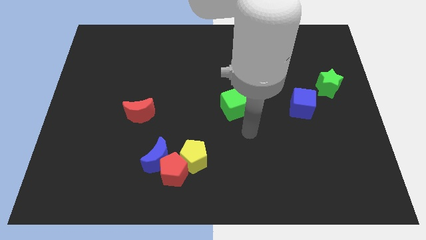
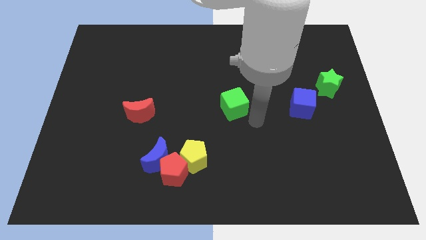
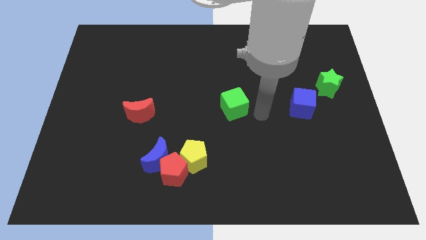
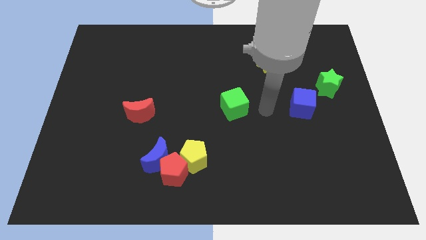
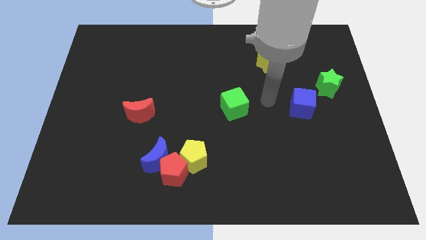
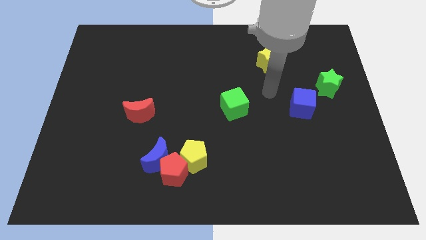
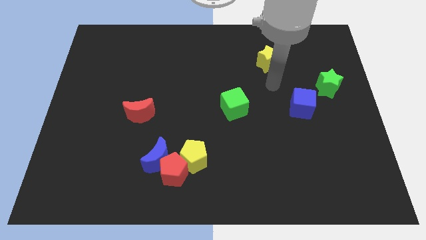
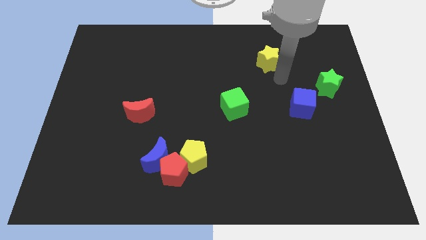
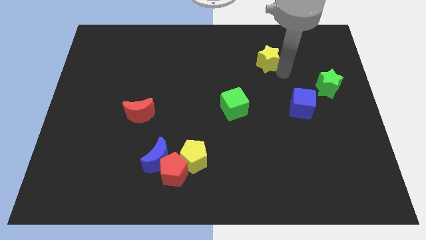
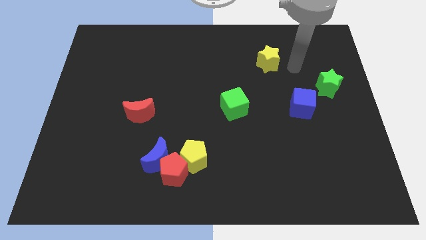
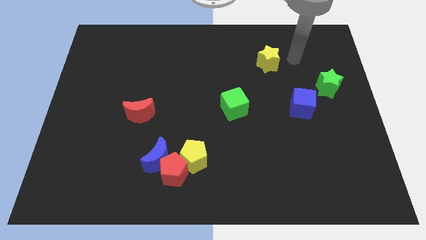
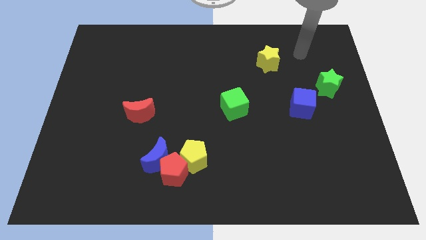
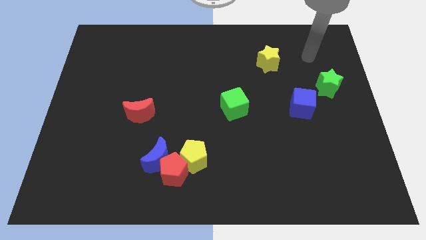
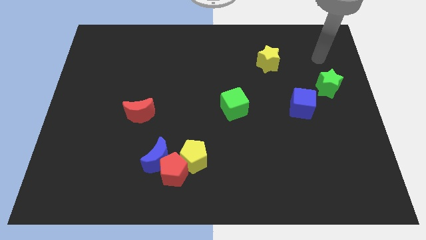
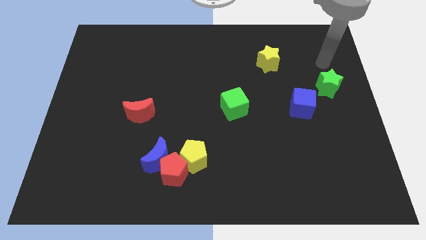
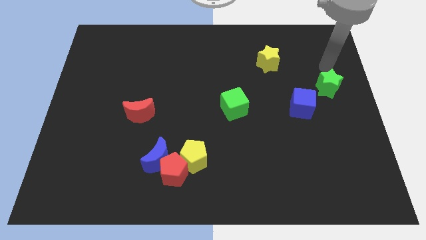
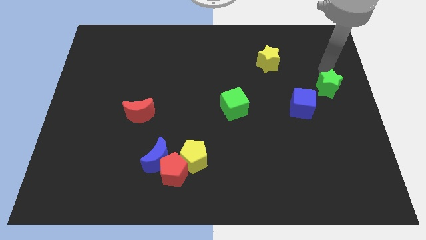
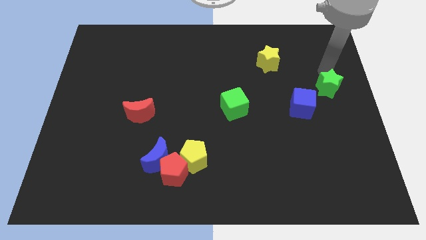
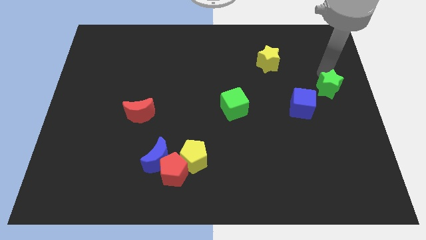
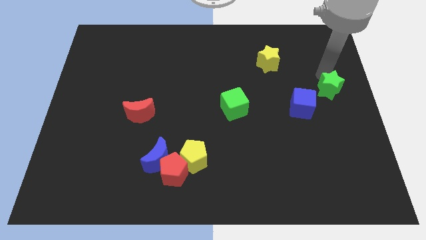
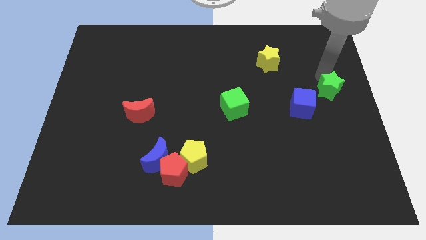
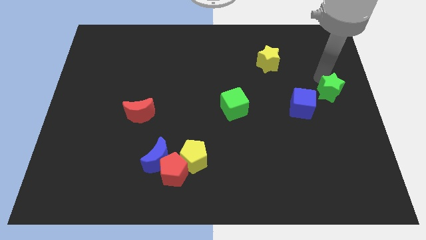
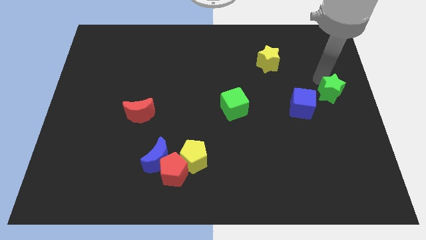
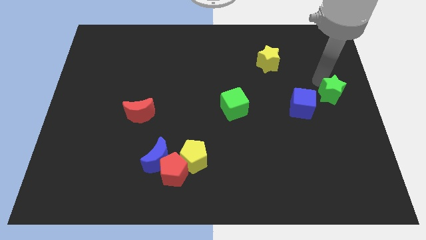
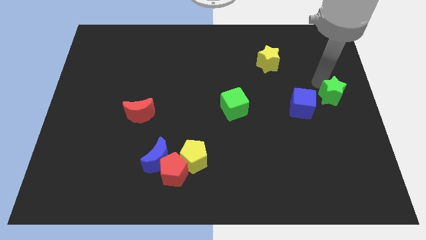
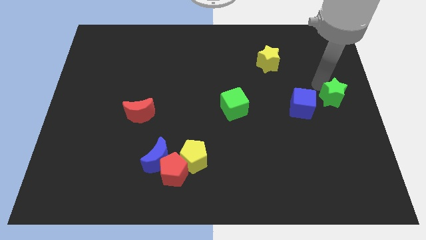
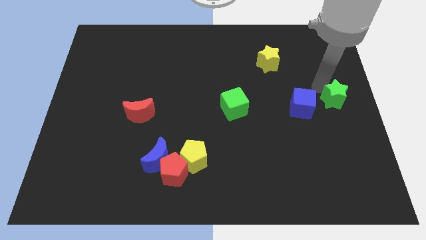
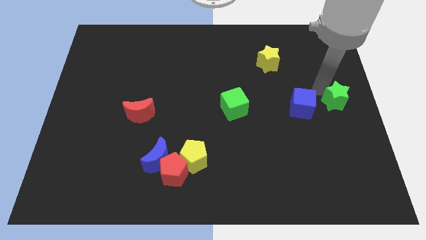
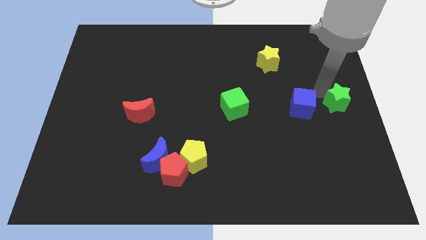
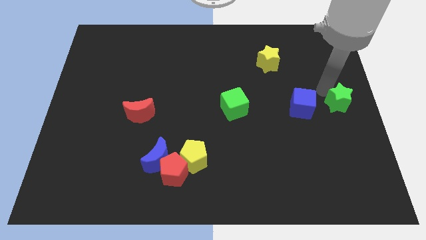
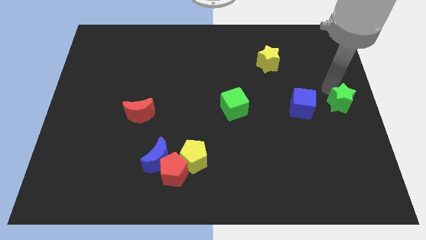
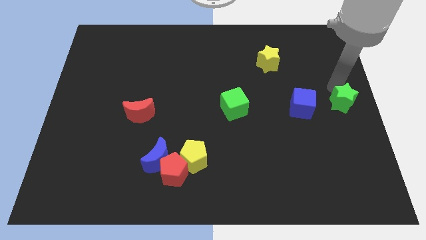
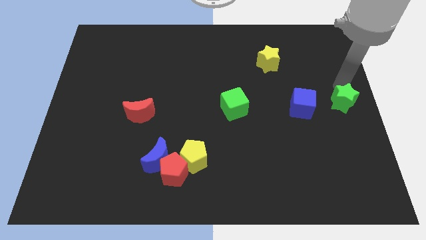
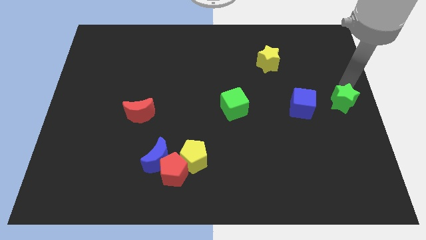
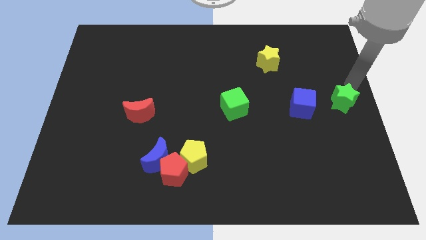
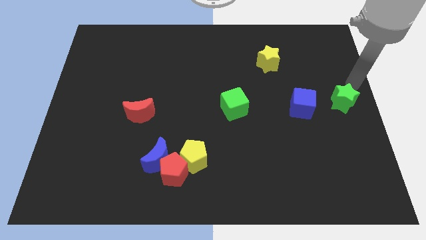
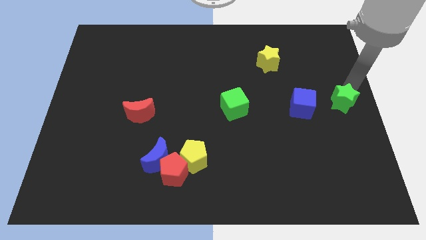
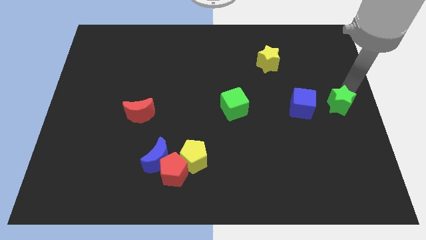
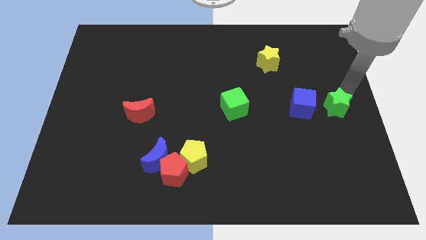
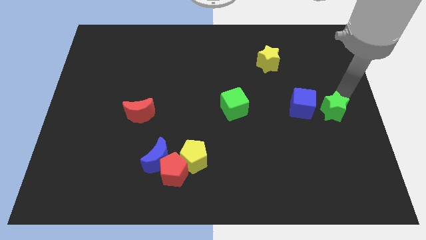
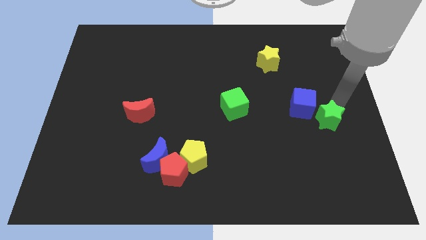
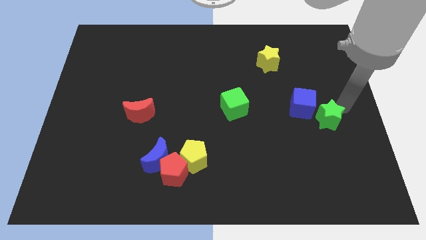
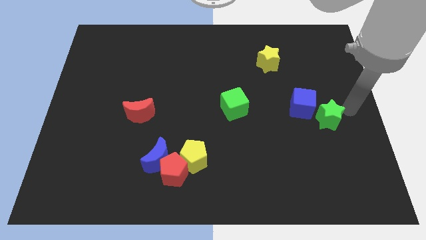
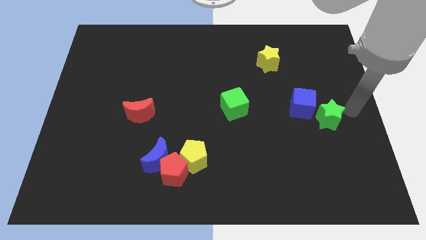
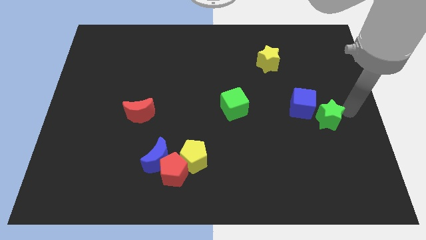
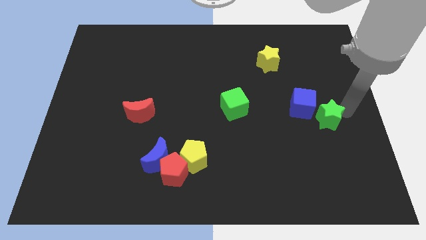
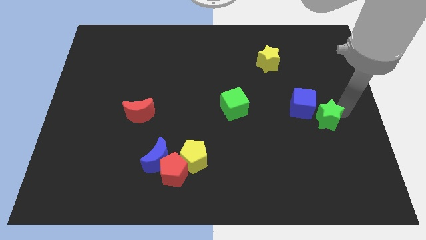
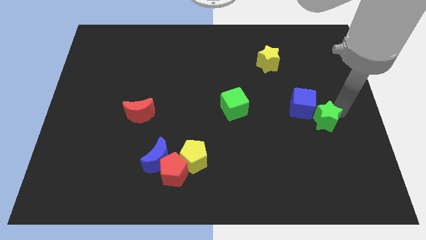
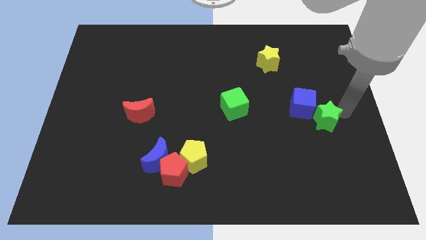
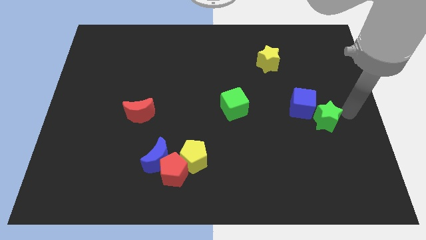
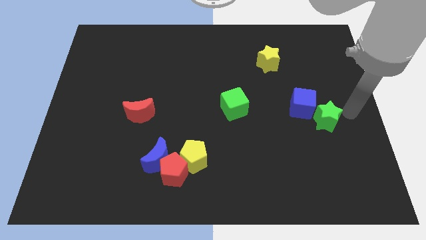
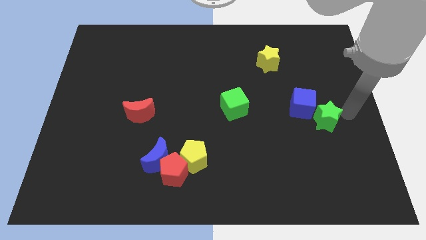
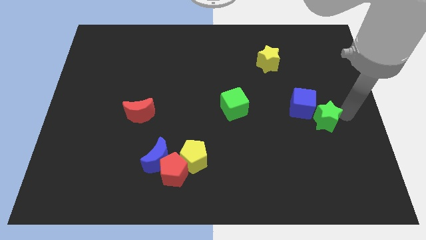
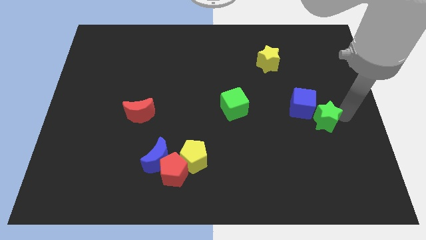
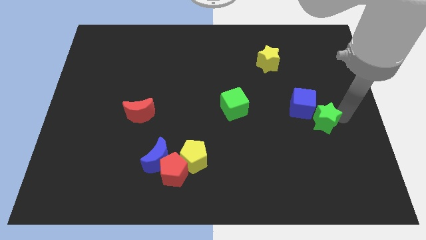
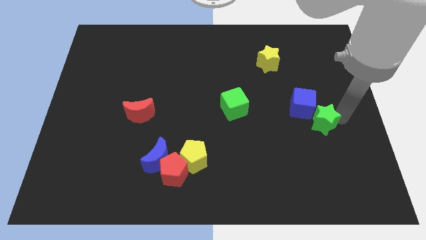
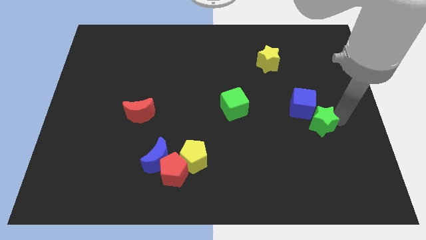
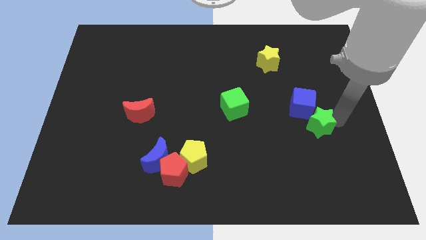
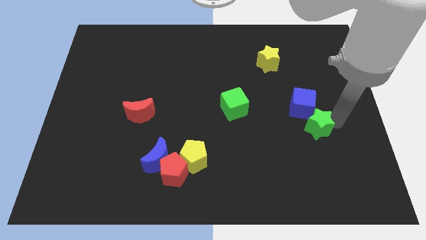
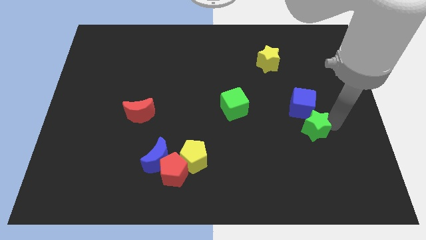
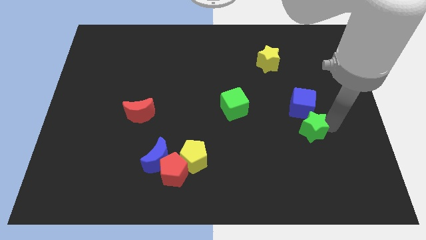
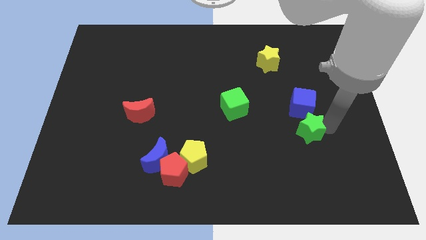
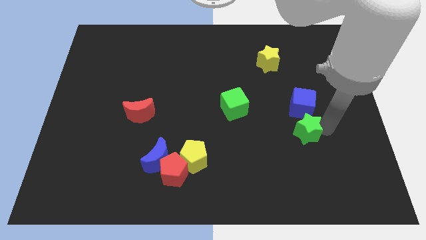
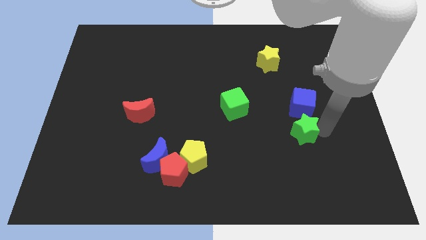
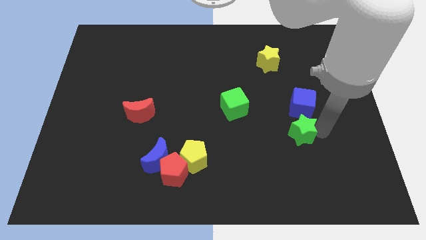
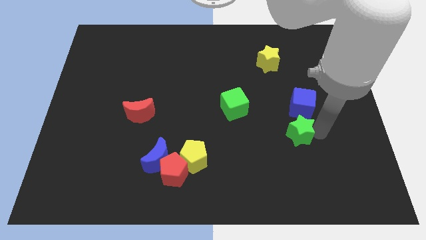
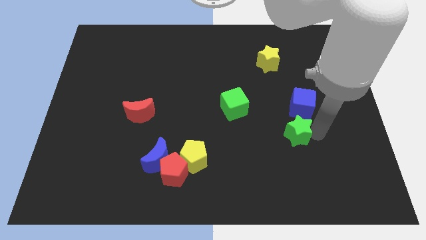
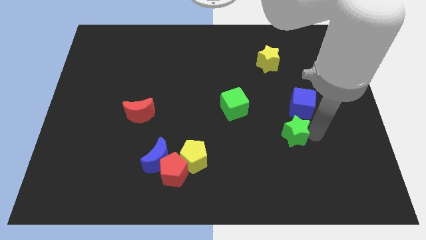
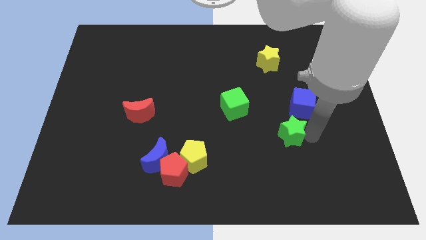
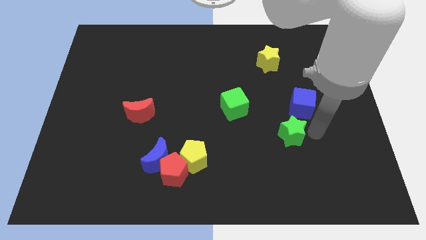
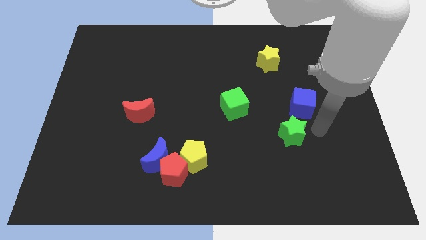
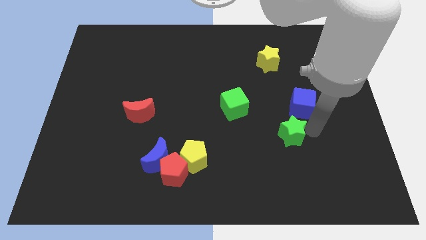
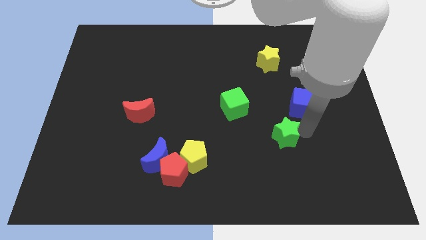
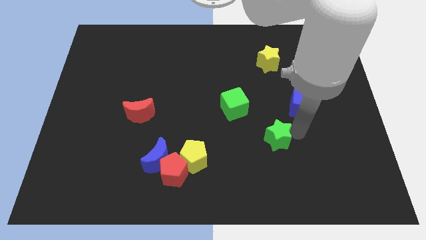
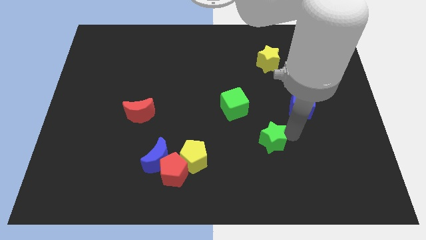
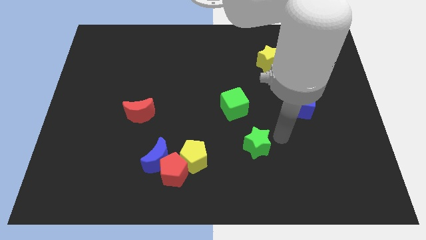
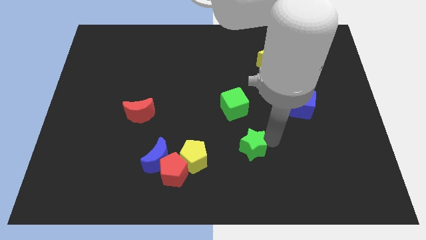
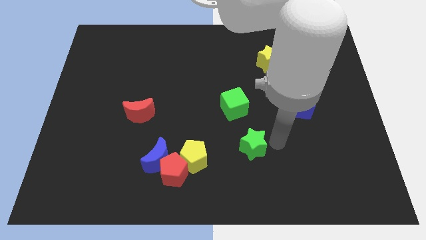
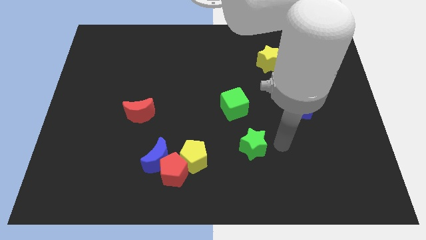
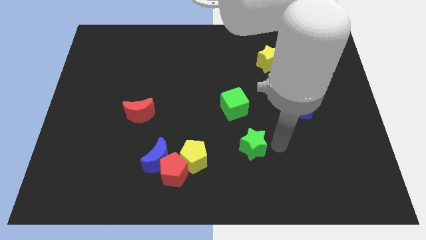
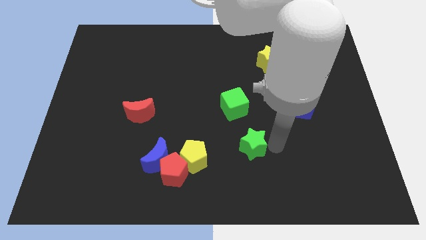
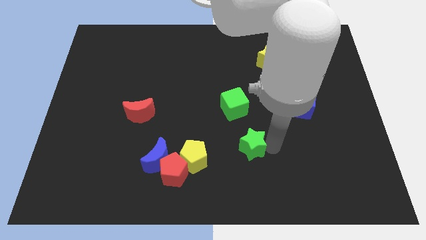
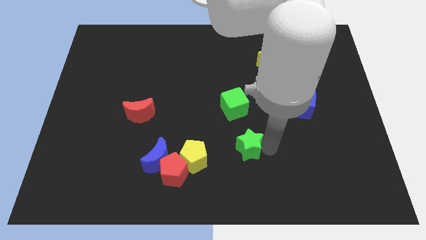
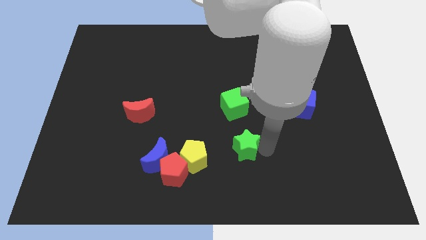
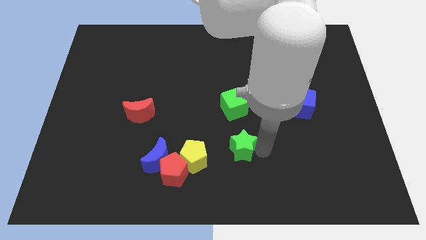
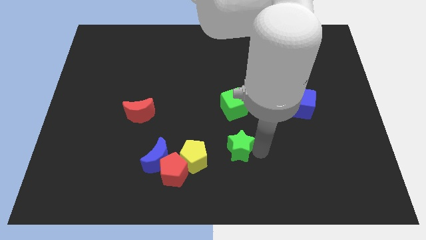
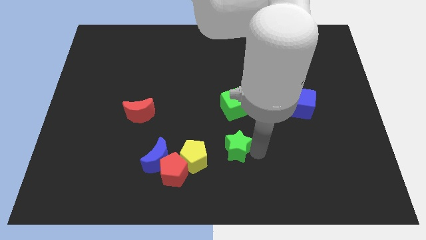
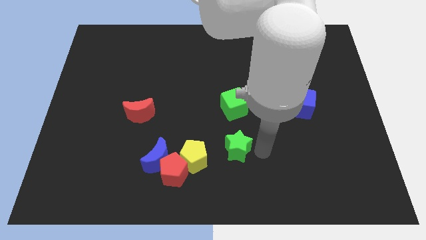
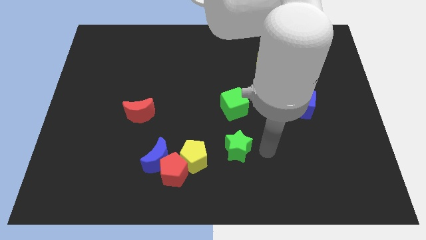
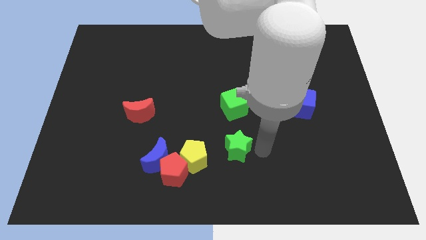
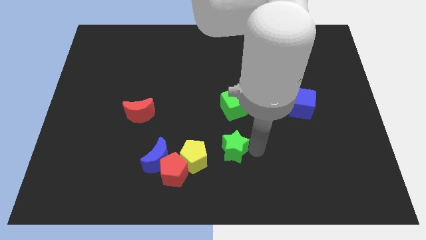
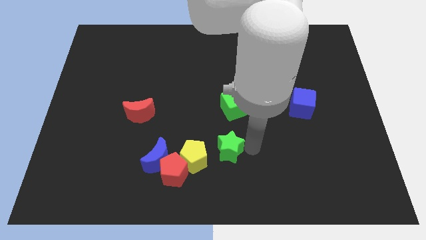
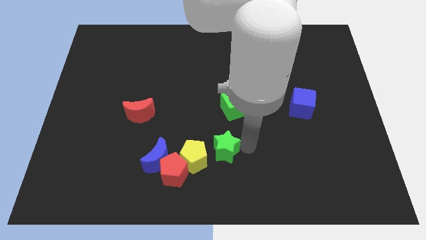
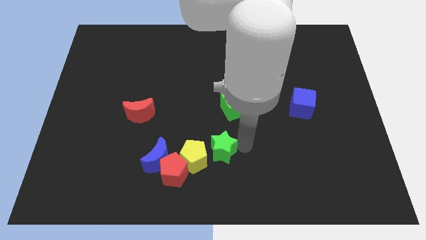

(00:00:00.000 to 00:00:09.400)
slide the green star close to the yellow pentagon
